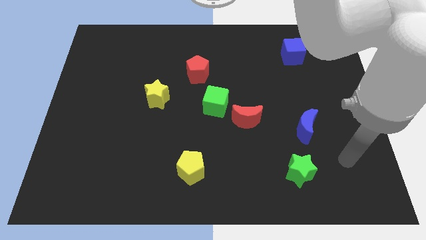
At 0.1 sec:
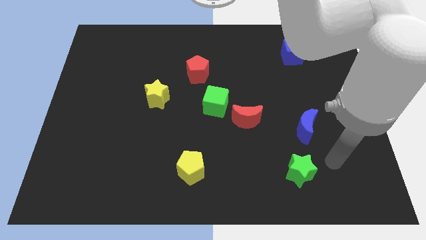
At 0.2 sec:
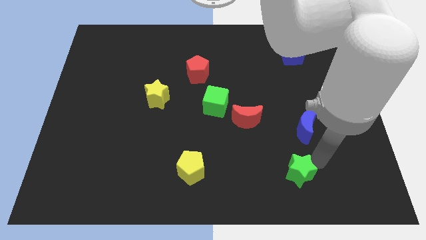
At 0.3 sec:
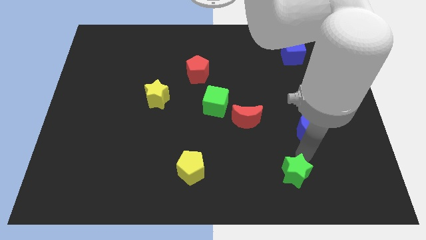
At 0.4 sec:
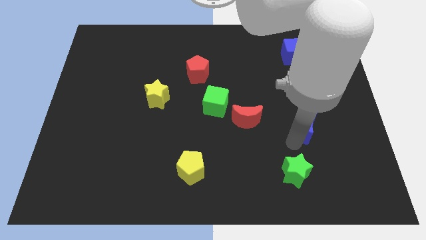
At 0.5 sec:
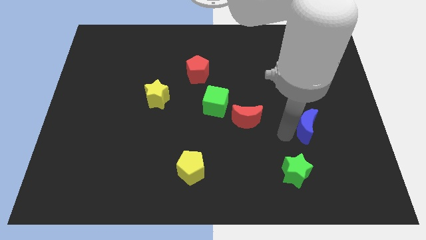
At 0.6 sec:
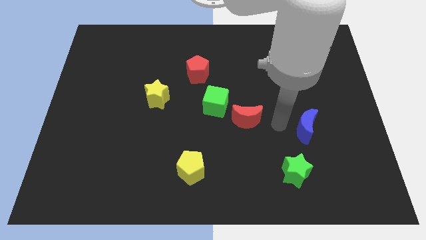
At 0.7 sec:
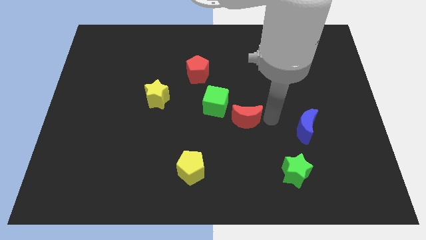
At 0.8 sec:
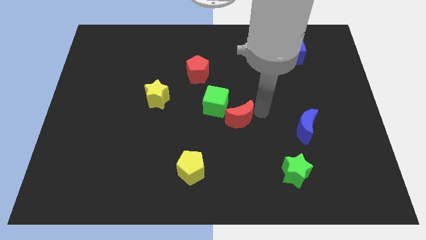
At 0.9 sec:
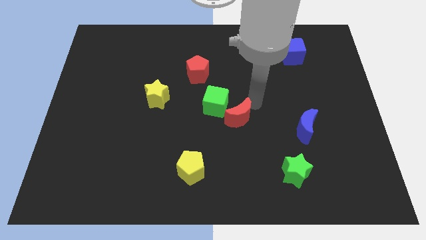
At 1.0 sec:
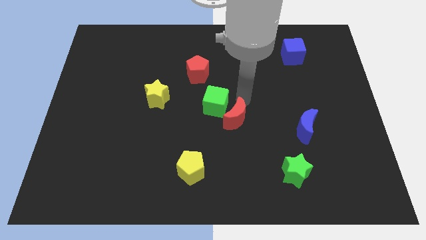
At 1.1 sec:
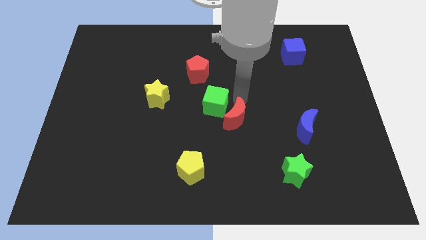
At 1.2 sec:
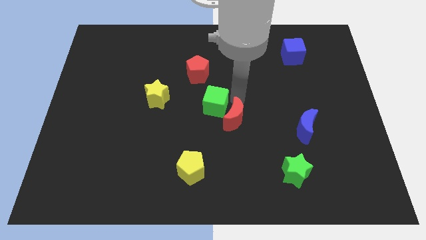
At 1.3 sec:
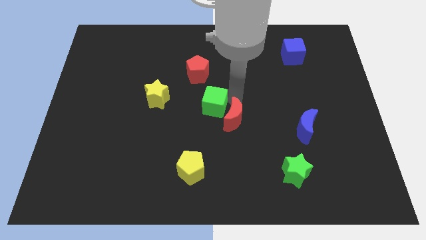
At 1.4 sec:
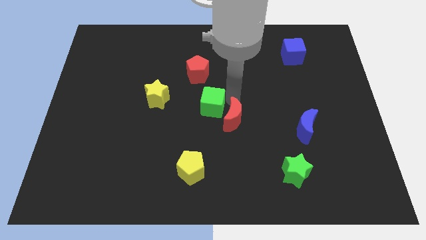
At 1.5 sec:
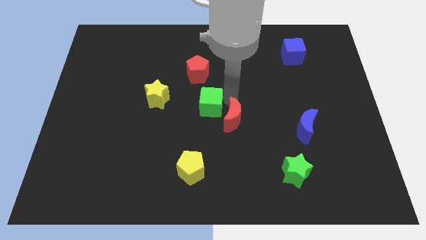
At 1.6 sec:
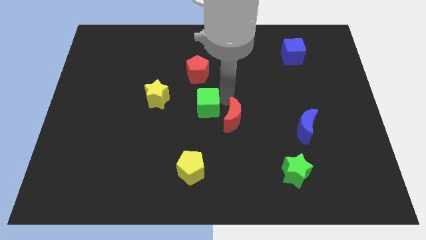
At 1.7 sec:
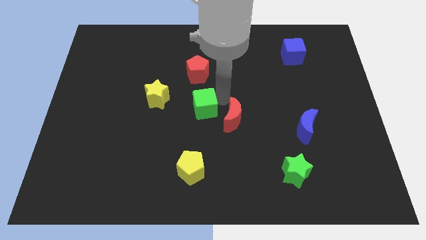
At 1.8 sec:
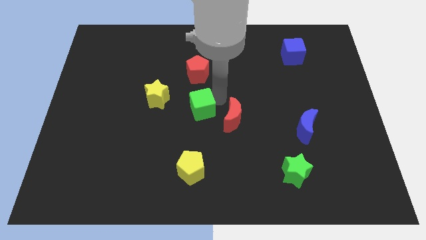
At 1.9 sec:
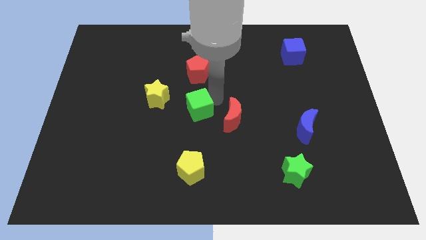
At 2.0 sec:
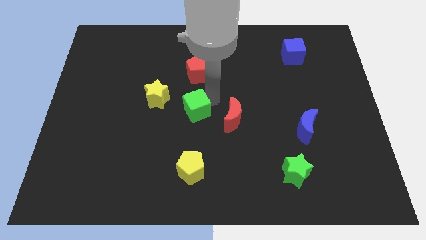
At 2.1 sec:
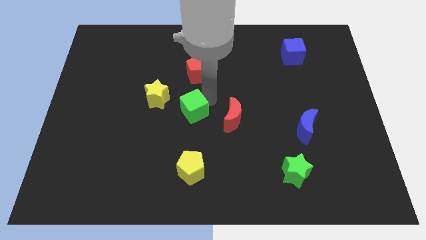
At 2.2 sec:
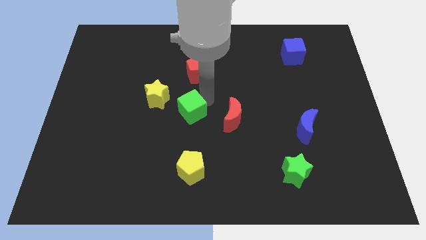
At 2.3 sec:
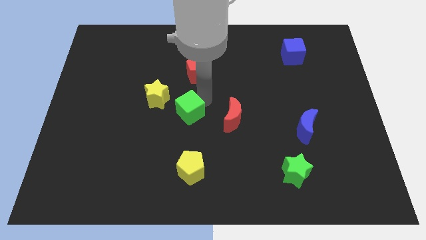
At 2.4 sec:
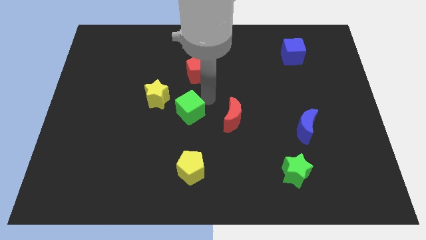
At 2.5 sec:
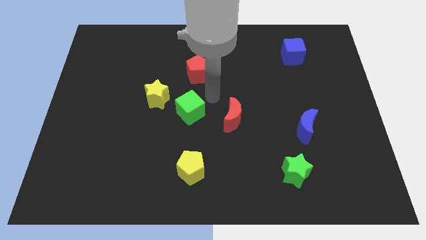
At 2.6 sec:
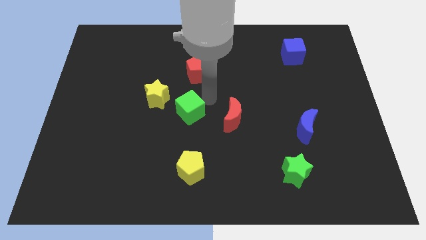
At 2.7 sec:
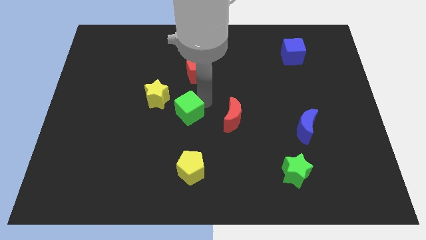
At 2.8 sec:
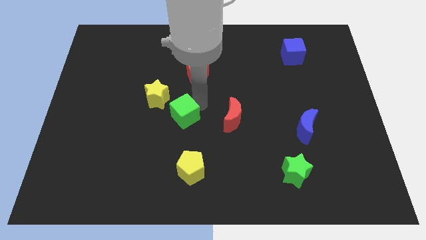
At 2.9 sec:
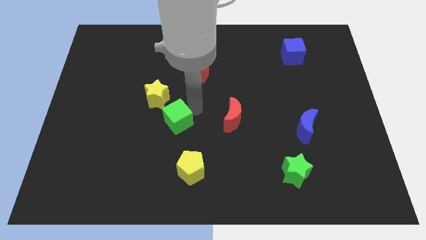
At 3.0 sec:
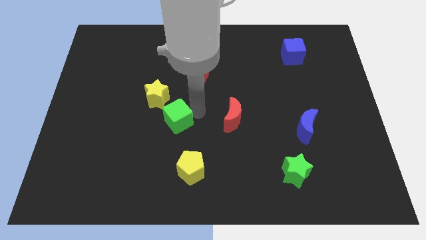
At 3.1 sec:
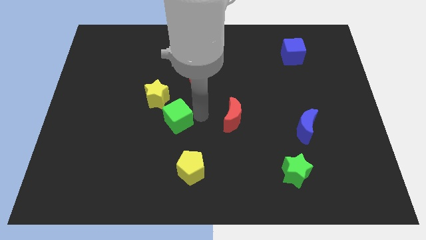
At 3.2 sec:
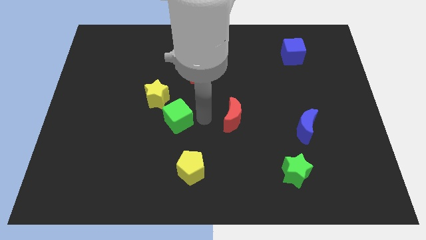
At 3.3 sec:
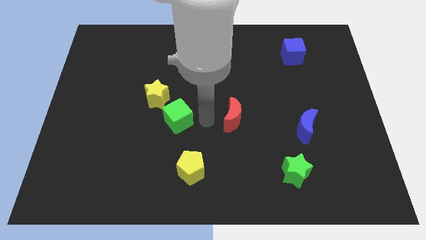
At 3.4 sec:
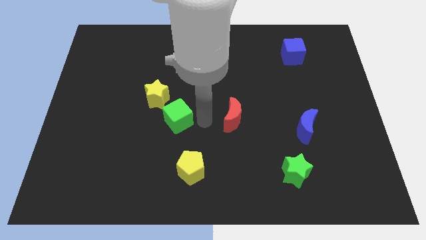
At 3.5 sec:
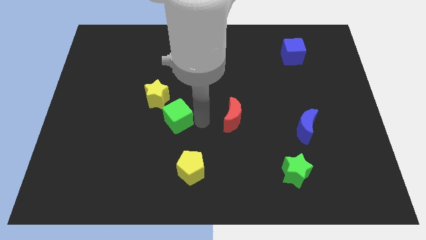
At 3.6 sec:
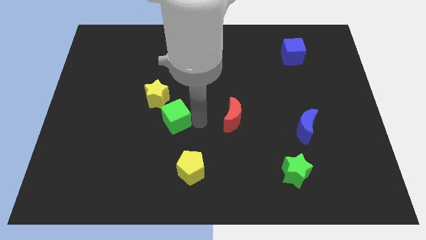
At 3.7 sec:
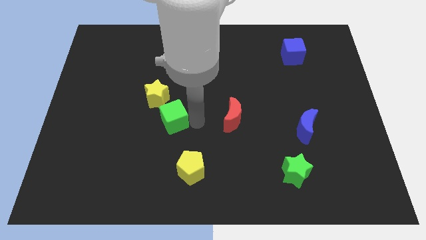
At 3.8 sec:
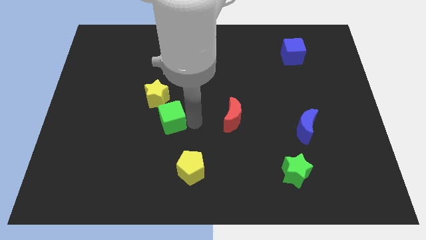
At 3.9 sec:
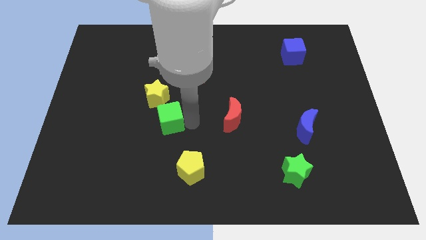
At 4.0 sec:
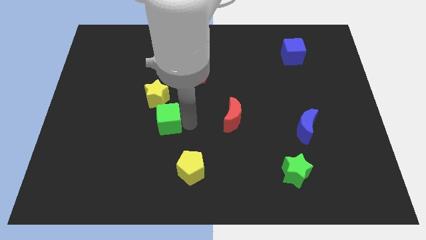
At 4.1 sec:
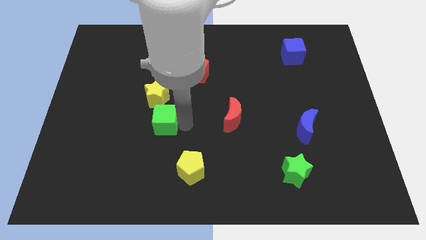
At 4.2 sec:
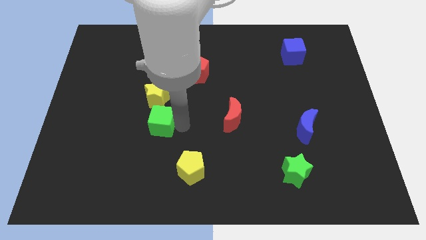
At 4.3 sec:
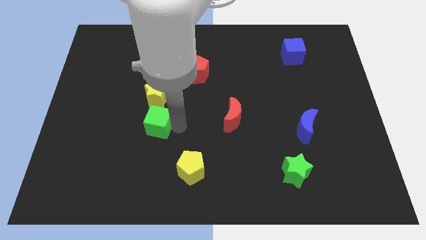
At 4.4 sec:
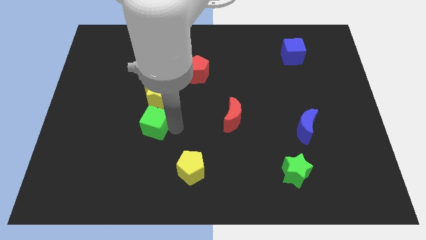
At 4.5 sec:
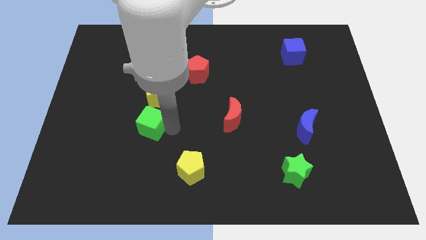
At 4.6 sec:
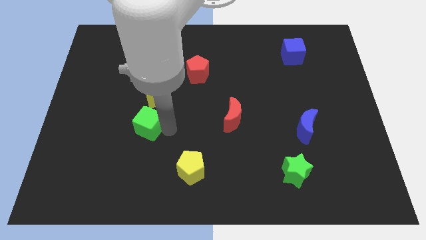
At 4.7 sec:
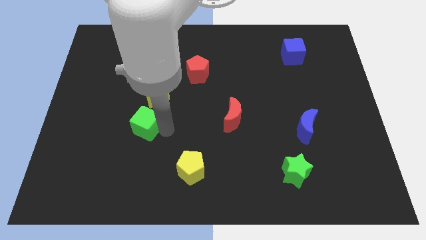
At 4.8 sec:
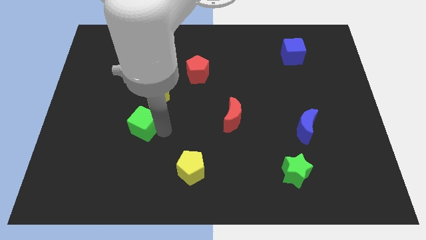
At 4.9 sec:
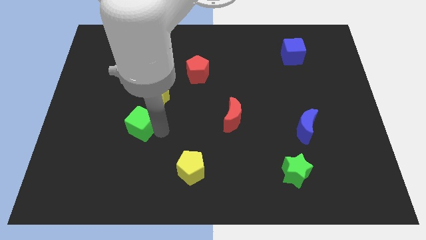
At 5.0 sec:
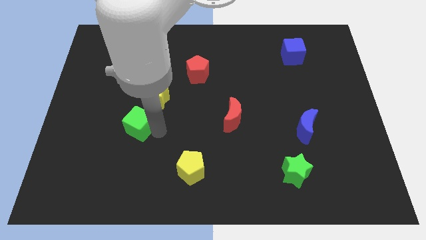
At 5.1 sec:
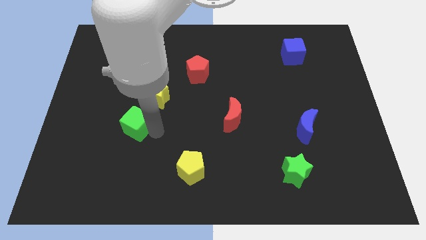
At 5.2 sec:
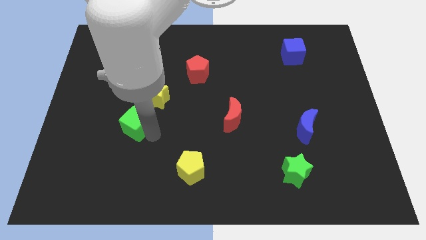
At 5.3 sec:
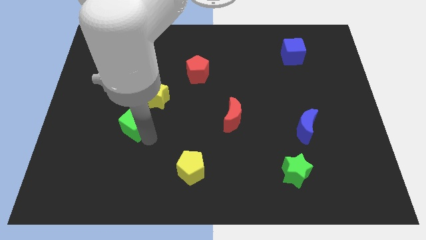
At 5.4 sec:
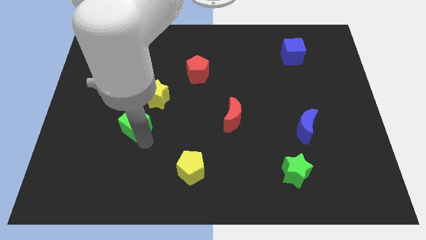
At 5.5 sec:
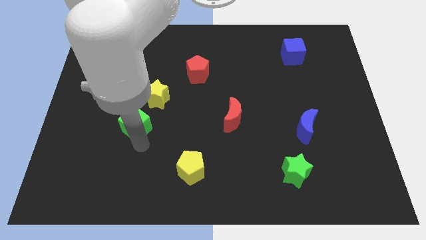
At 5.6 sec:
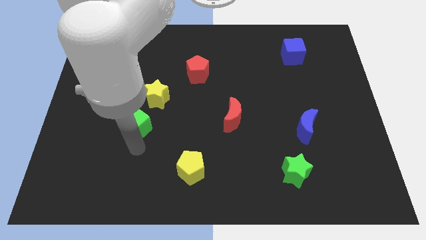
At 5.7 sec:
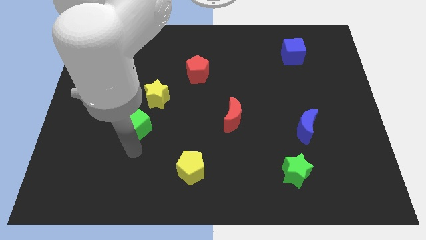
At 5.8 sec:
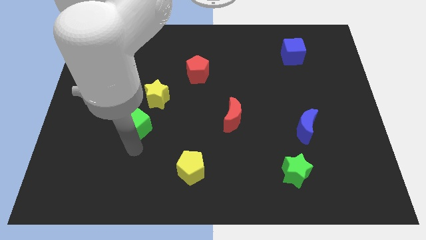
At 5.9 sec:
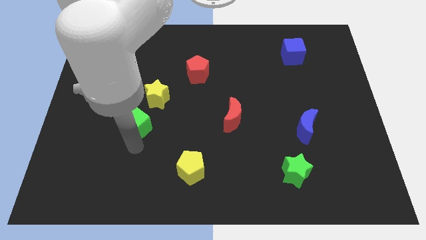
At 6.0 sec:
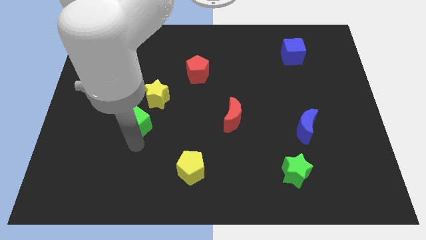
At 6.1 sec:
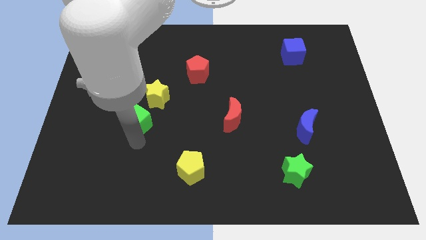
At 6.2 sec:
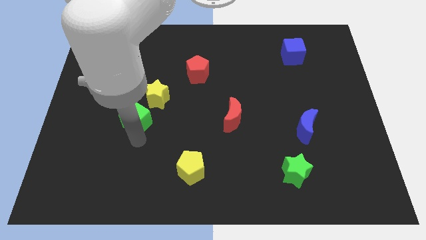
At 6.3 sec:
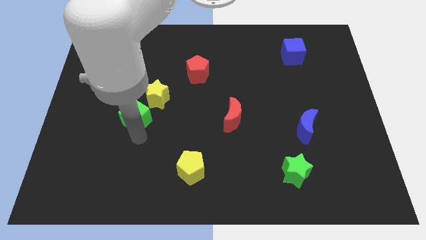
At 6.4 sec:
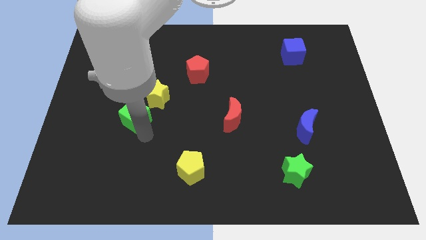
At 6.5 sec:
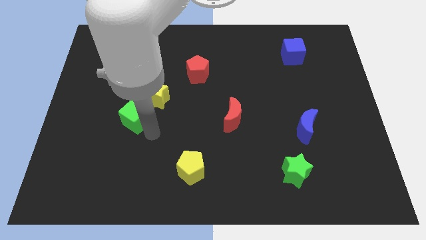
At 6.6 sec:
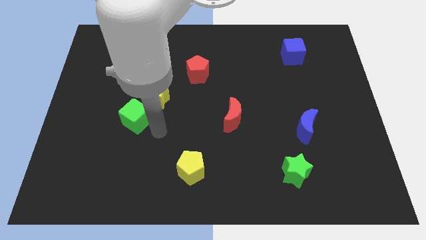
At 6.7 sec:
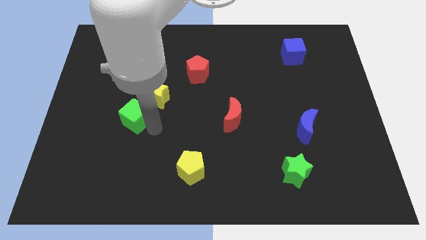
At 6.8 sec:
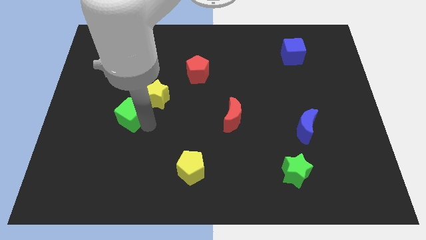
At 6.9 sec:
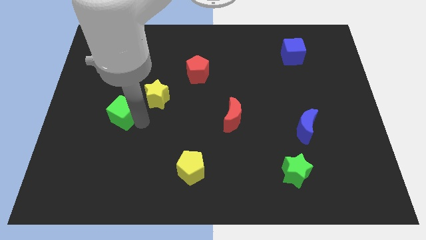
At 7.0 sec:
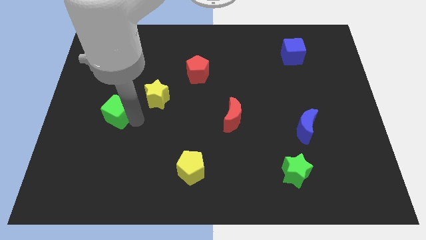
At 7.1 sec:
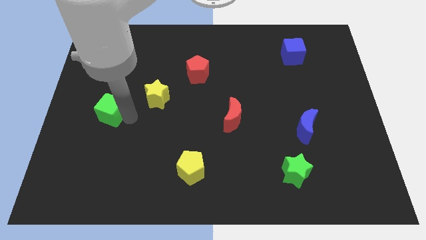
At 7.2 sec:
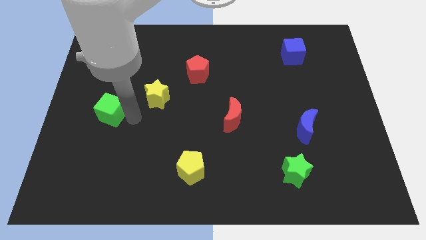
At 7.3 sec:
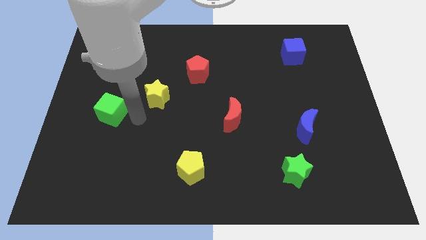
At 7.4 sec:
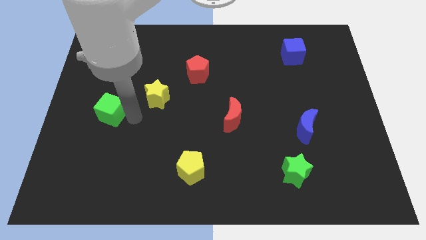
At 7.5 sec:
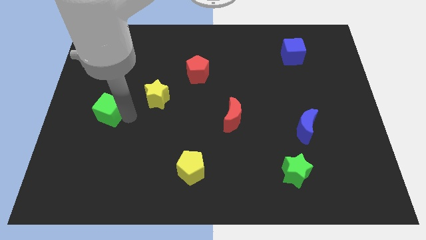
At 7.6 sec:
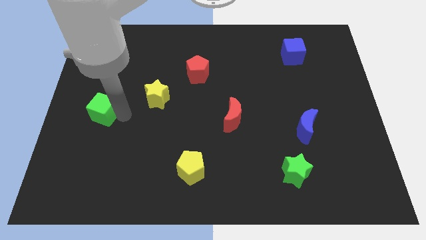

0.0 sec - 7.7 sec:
move the green cube to the left side
